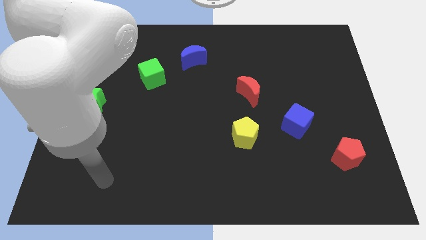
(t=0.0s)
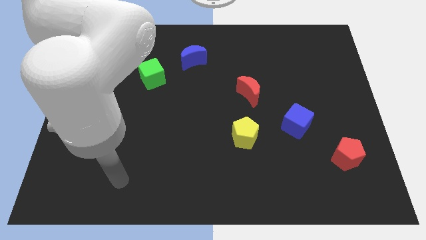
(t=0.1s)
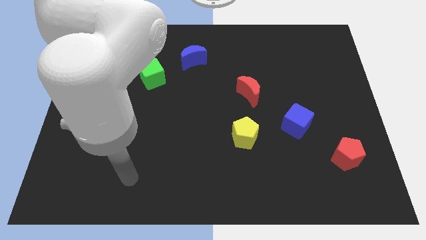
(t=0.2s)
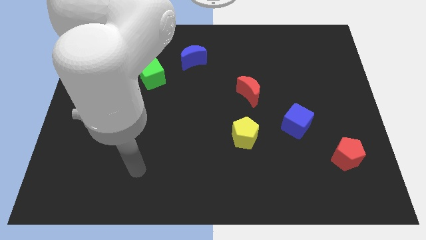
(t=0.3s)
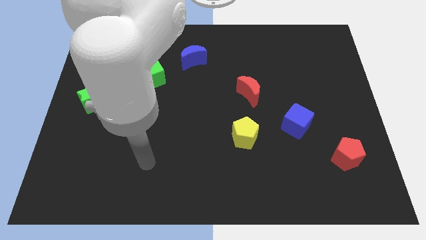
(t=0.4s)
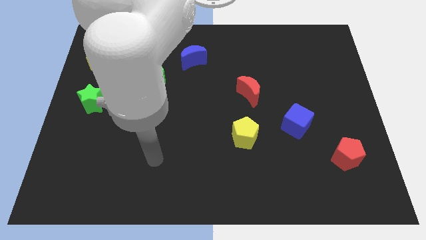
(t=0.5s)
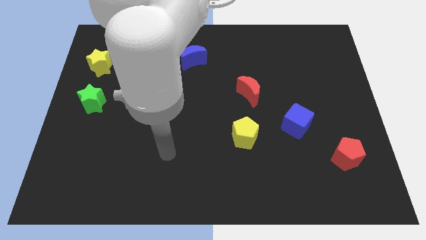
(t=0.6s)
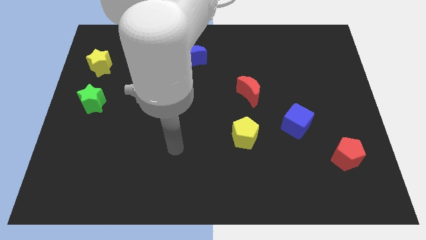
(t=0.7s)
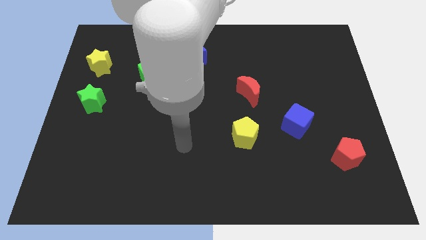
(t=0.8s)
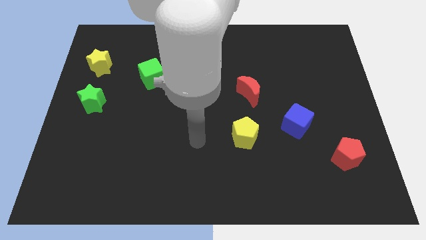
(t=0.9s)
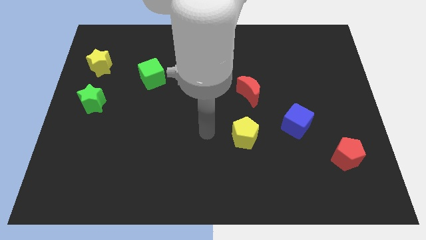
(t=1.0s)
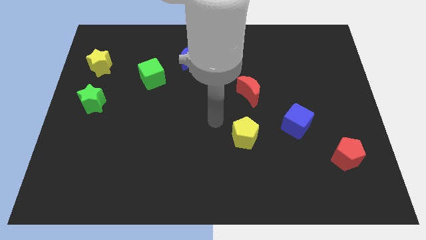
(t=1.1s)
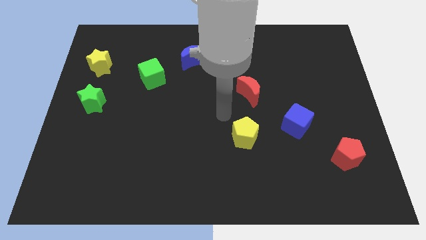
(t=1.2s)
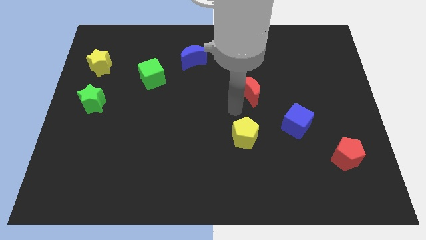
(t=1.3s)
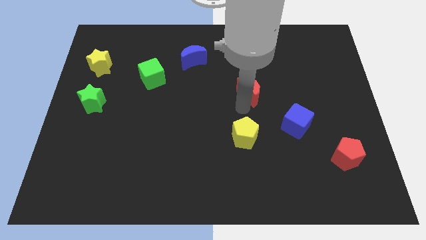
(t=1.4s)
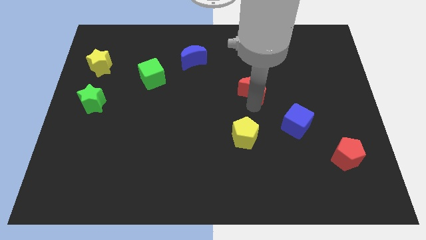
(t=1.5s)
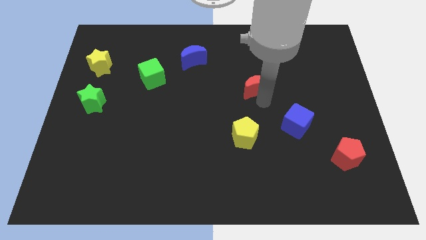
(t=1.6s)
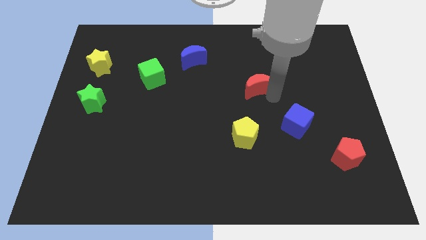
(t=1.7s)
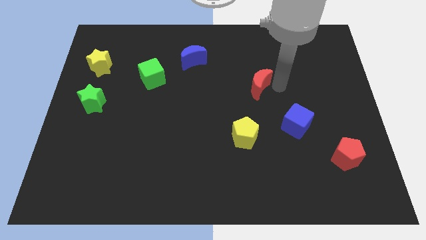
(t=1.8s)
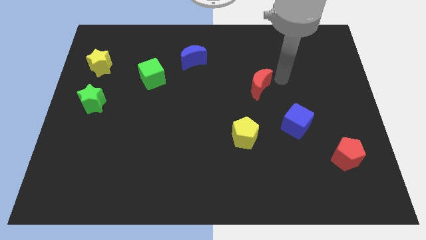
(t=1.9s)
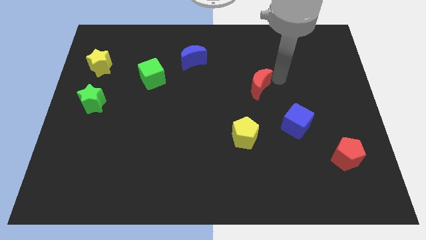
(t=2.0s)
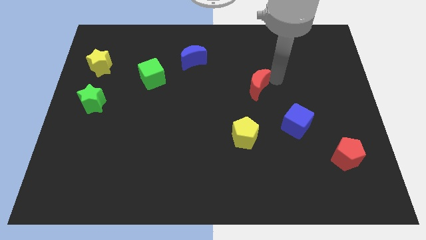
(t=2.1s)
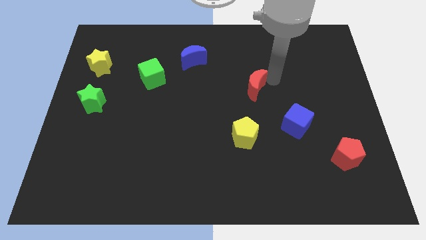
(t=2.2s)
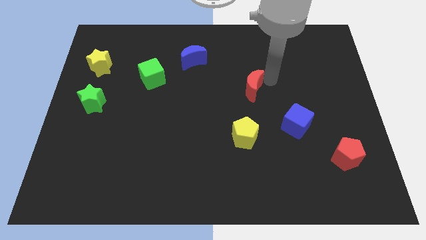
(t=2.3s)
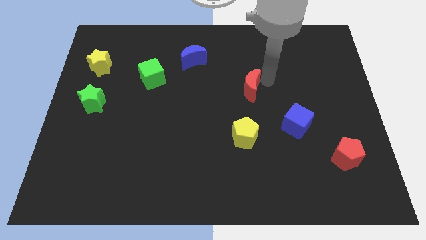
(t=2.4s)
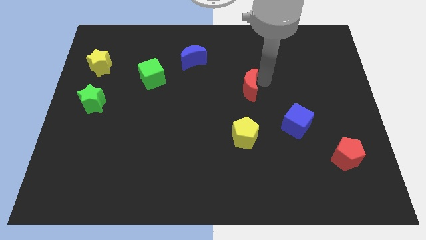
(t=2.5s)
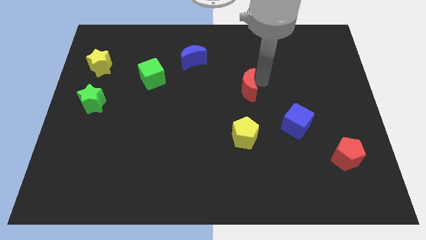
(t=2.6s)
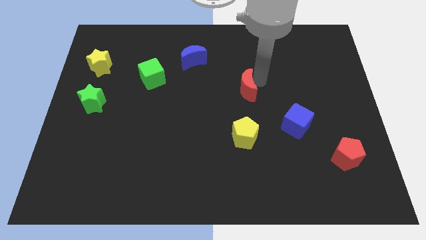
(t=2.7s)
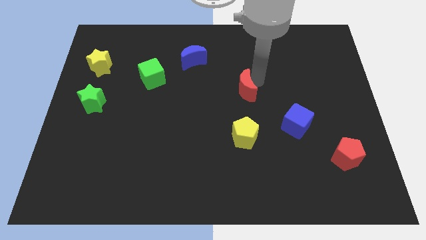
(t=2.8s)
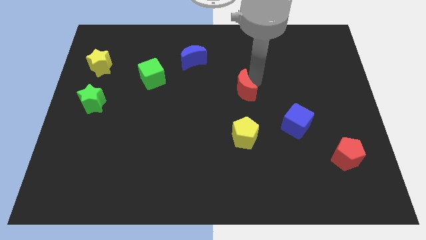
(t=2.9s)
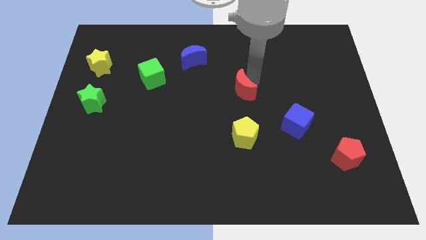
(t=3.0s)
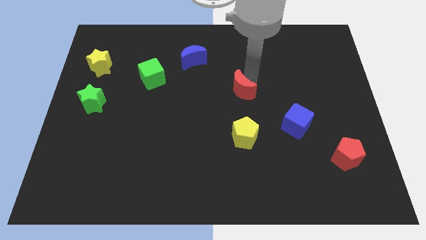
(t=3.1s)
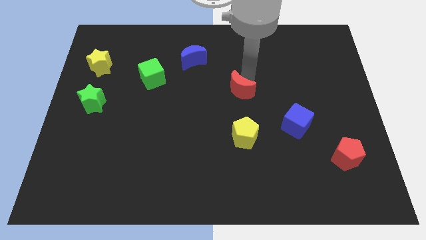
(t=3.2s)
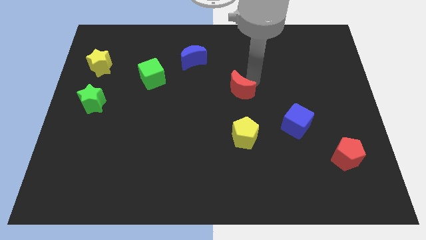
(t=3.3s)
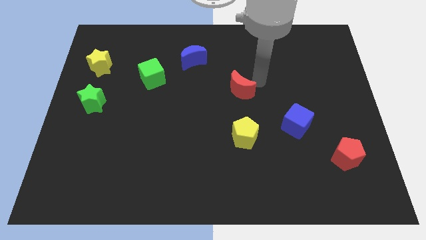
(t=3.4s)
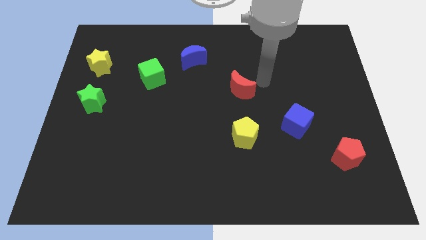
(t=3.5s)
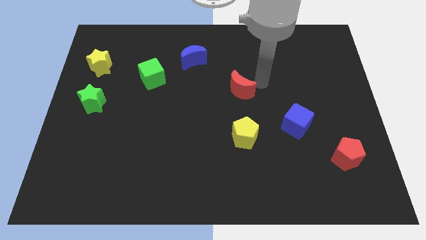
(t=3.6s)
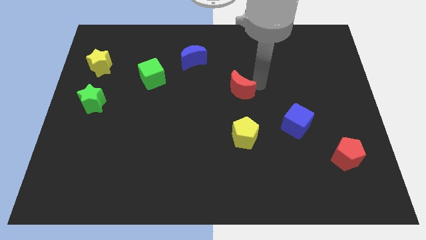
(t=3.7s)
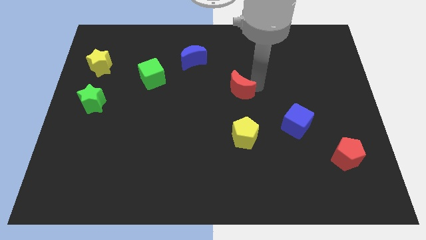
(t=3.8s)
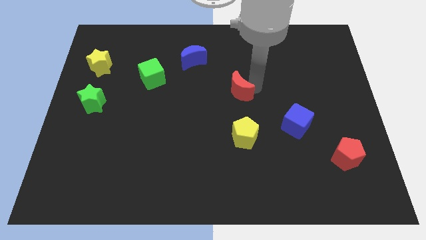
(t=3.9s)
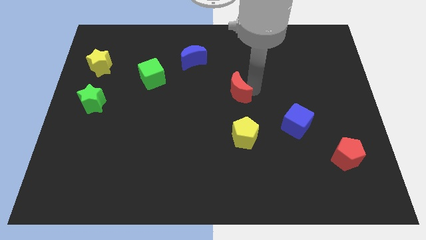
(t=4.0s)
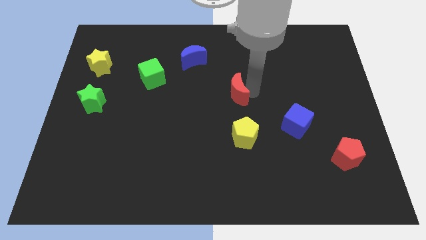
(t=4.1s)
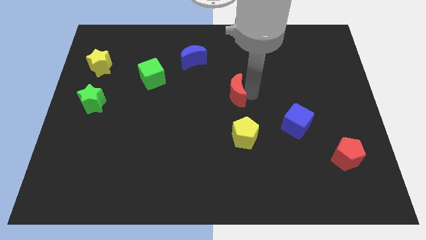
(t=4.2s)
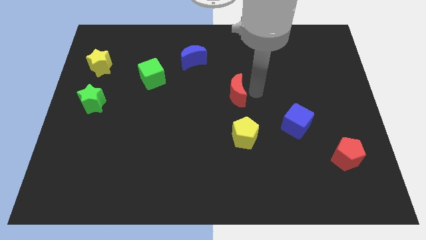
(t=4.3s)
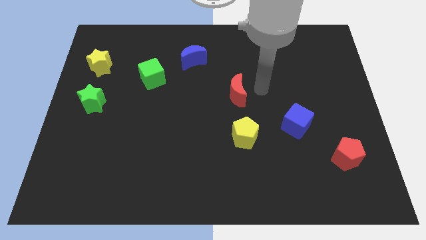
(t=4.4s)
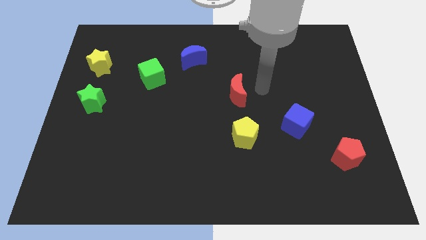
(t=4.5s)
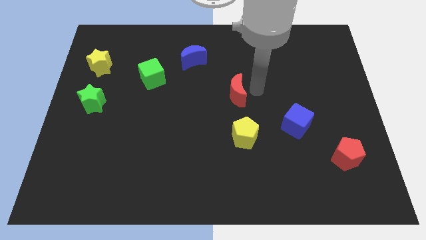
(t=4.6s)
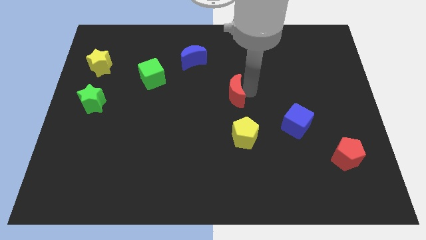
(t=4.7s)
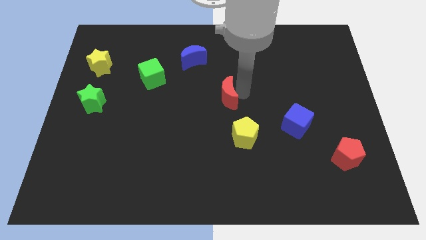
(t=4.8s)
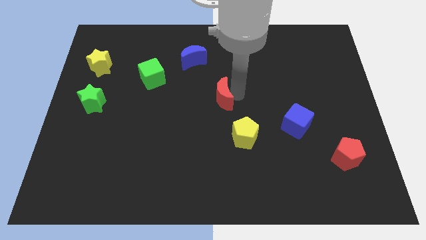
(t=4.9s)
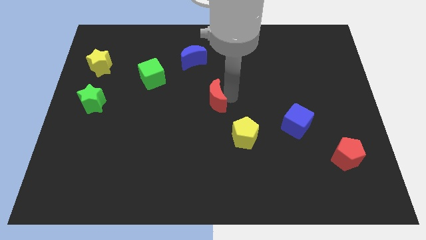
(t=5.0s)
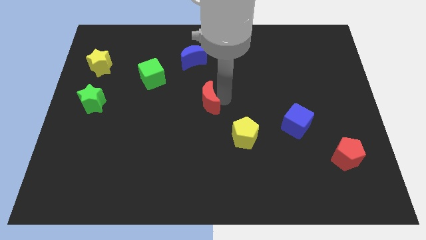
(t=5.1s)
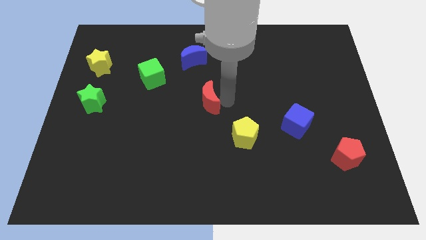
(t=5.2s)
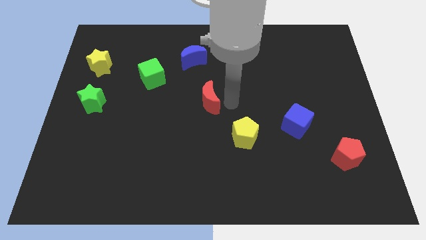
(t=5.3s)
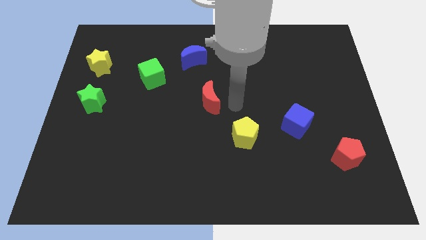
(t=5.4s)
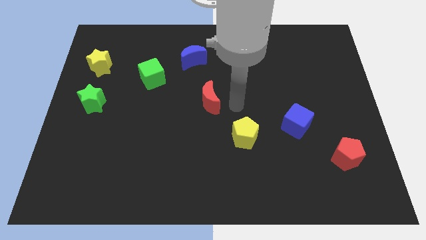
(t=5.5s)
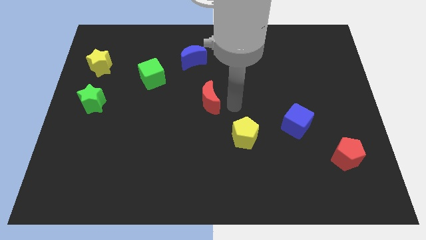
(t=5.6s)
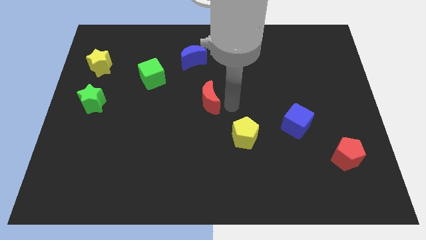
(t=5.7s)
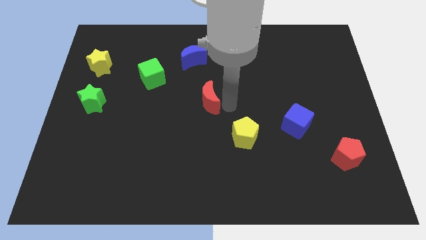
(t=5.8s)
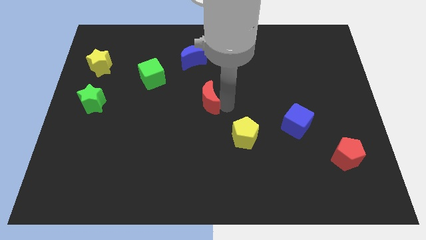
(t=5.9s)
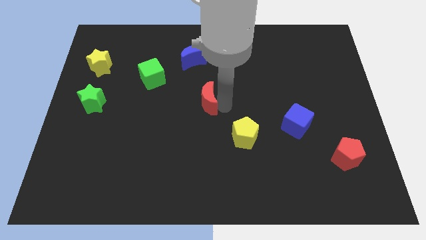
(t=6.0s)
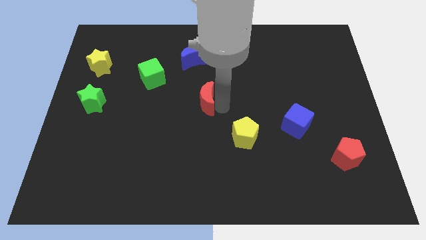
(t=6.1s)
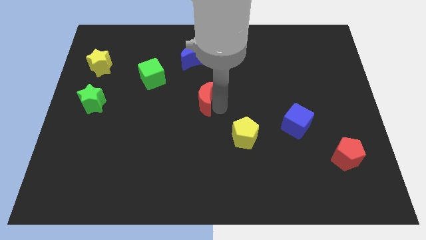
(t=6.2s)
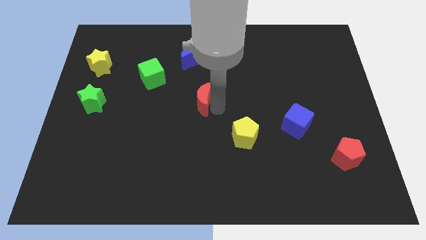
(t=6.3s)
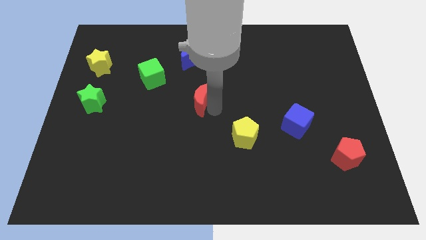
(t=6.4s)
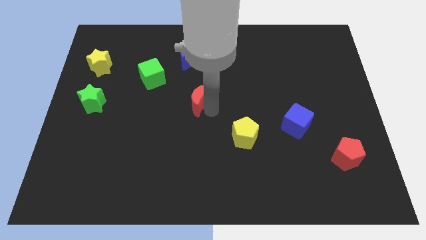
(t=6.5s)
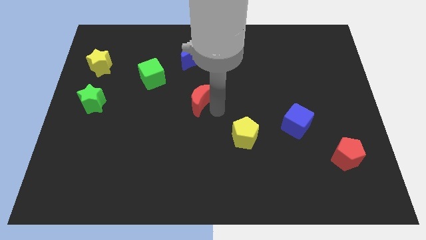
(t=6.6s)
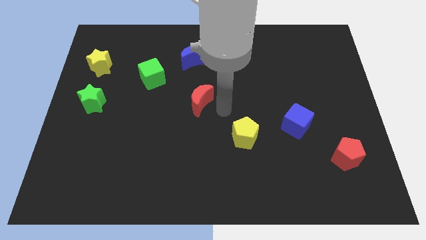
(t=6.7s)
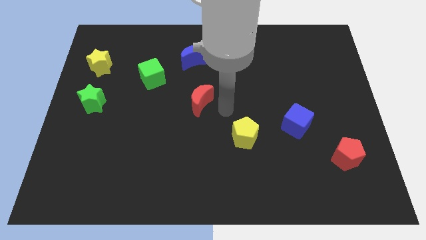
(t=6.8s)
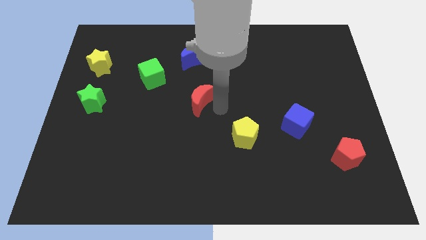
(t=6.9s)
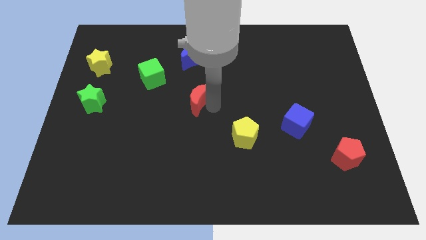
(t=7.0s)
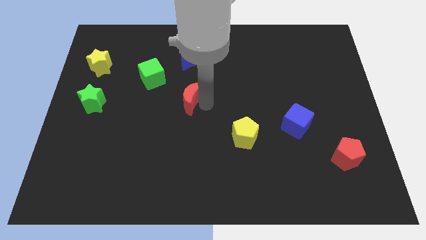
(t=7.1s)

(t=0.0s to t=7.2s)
put the red moon to the bottom right of the green cube

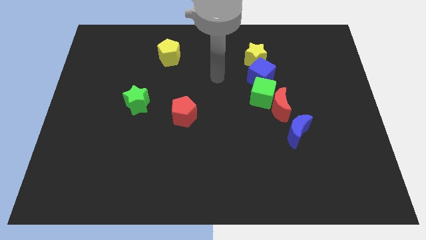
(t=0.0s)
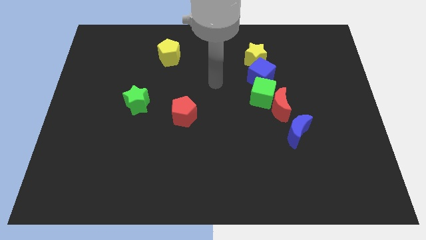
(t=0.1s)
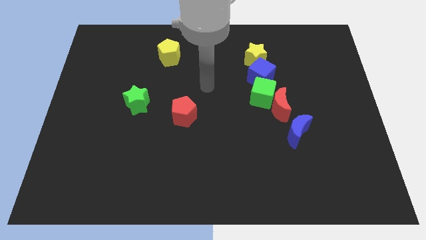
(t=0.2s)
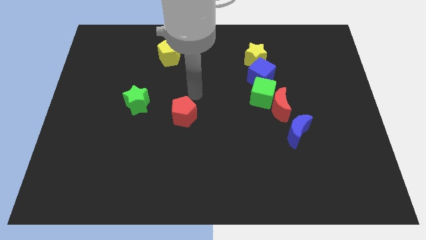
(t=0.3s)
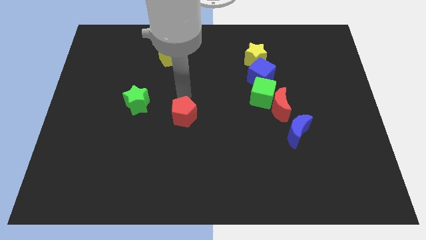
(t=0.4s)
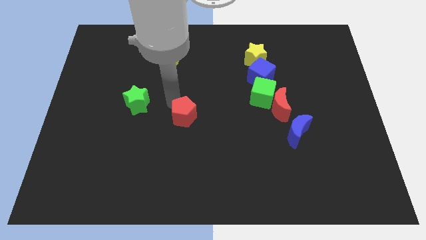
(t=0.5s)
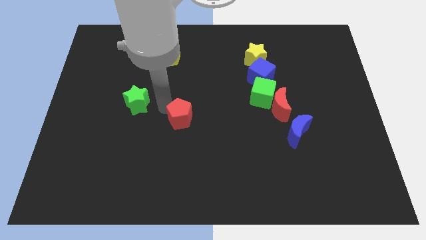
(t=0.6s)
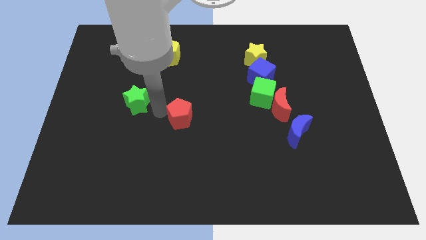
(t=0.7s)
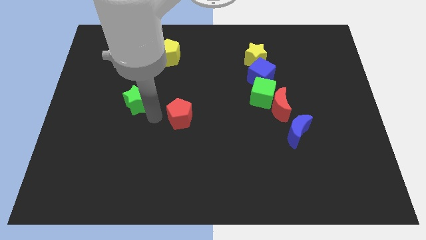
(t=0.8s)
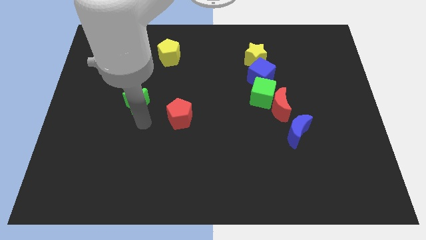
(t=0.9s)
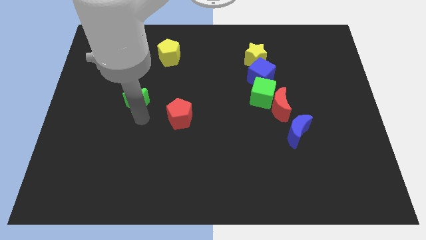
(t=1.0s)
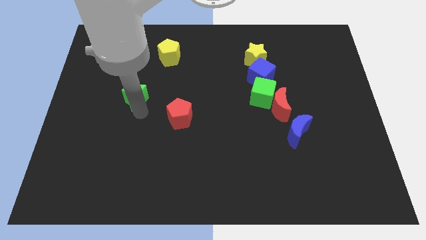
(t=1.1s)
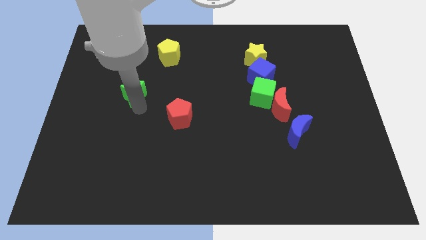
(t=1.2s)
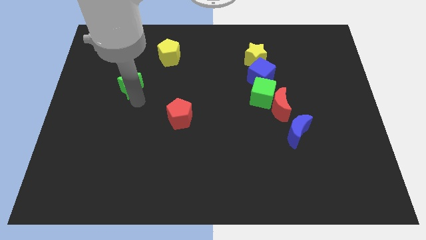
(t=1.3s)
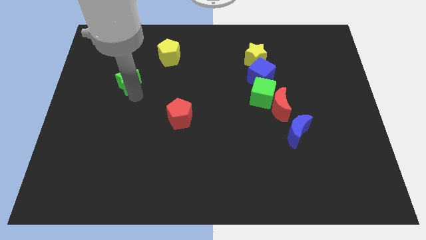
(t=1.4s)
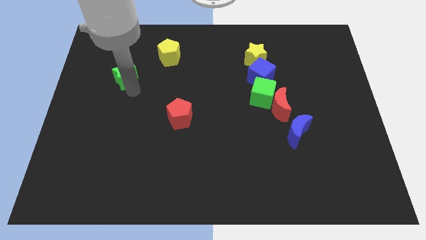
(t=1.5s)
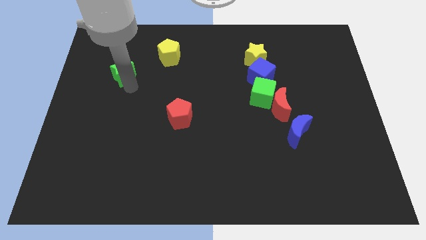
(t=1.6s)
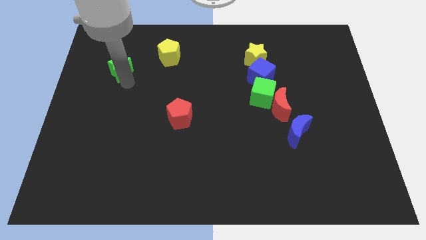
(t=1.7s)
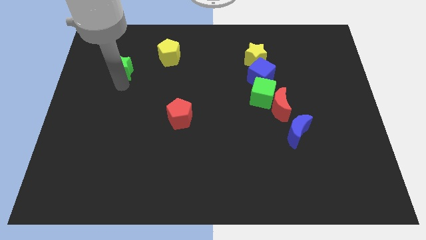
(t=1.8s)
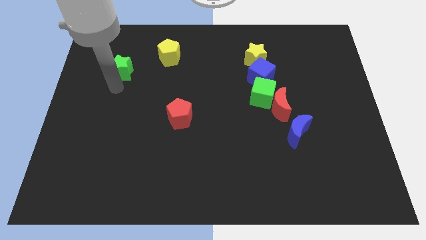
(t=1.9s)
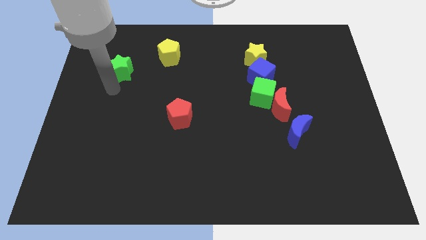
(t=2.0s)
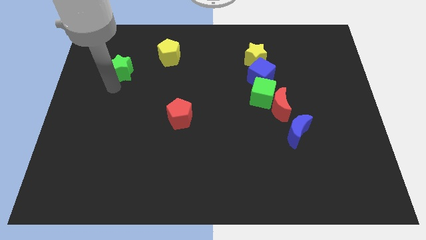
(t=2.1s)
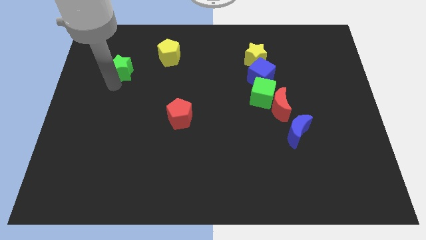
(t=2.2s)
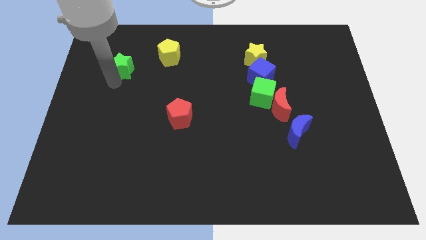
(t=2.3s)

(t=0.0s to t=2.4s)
put the green star just left of the yellow pentagon
